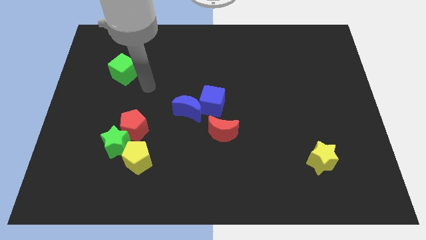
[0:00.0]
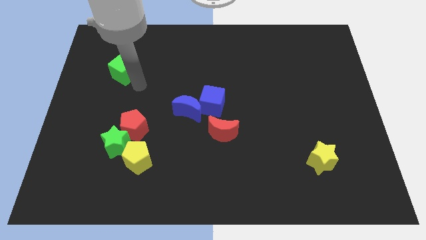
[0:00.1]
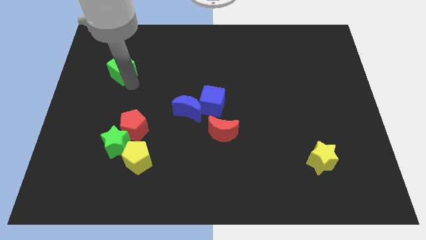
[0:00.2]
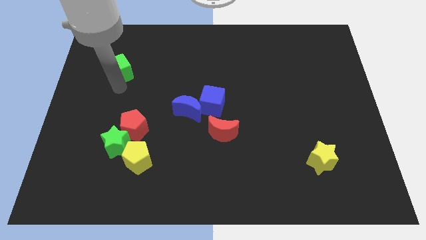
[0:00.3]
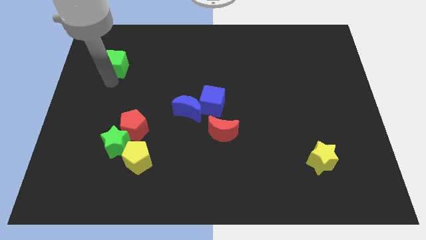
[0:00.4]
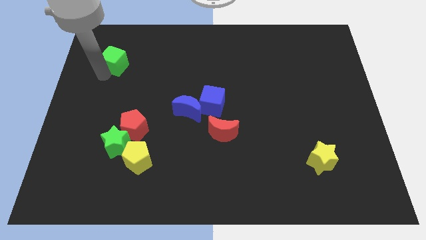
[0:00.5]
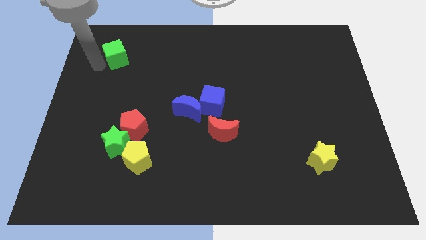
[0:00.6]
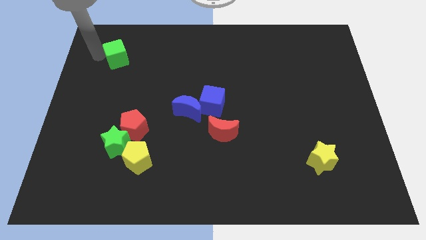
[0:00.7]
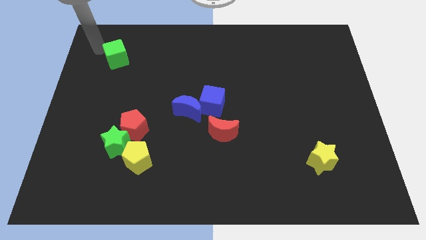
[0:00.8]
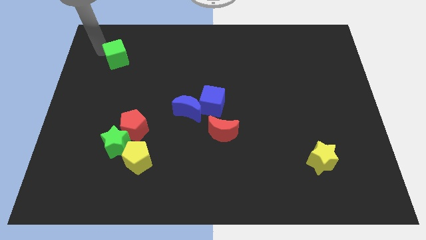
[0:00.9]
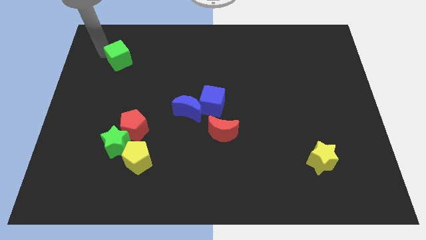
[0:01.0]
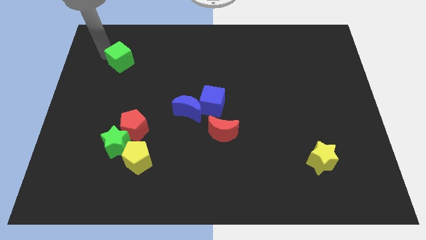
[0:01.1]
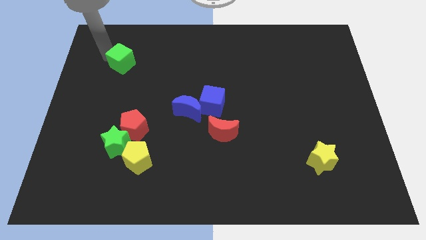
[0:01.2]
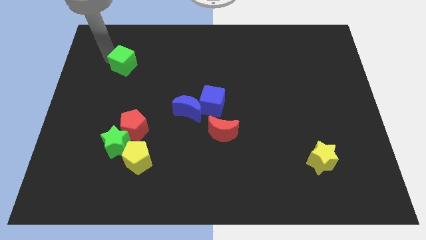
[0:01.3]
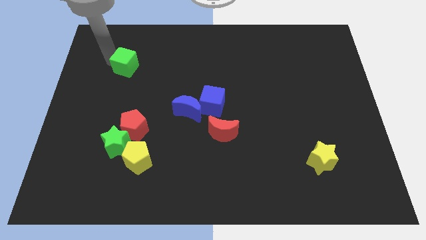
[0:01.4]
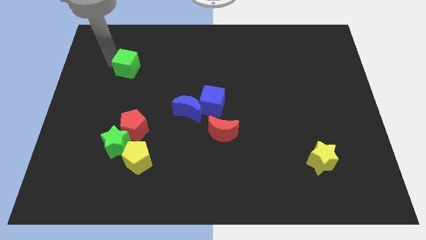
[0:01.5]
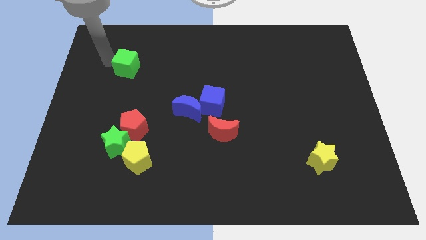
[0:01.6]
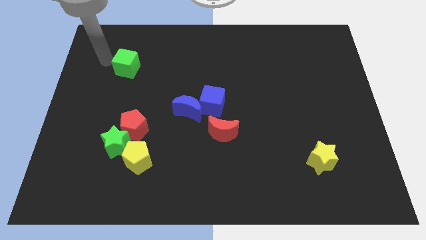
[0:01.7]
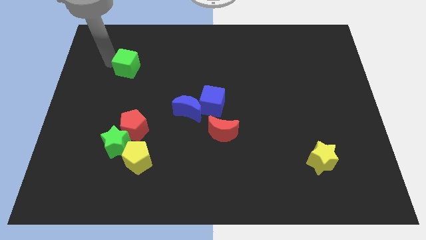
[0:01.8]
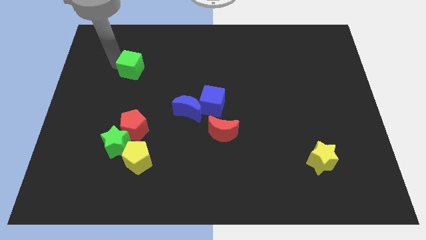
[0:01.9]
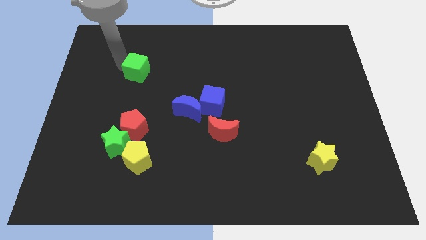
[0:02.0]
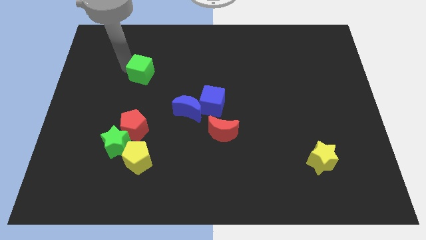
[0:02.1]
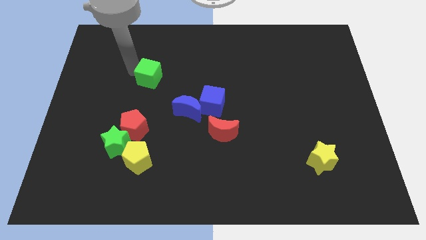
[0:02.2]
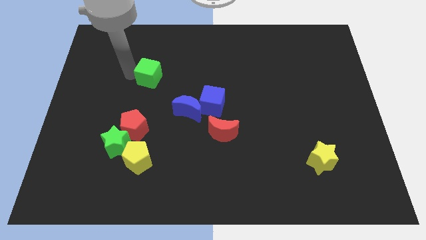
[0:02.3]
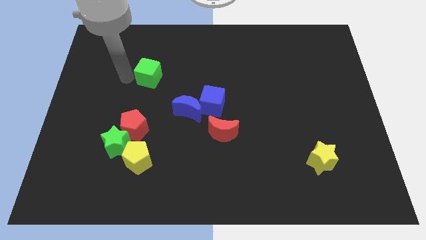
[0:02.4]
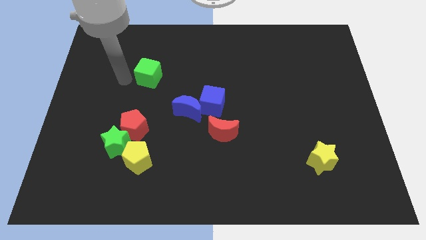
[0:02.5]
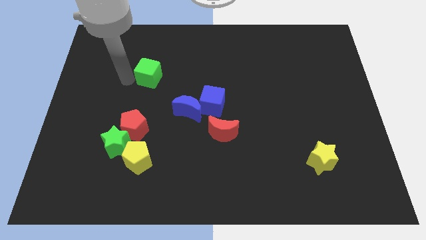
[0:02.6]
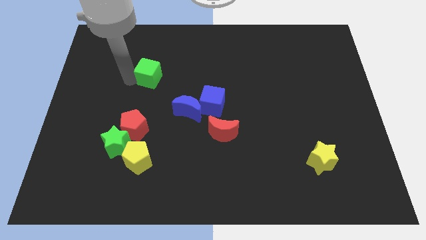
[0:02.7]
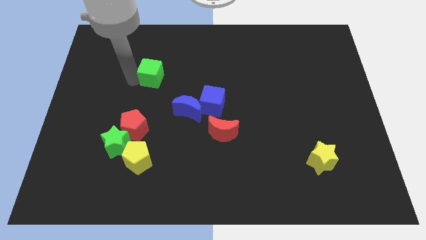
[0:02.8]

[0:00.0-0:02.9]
move the green cube somewhat to the right

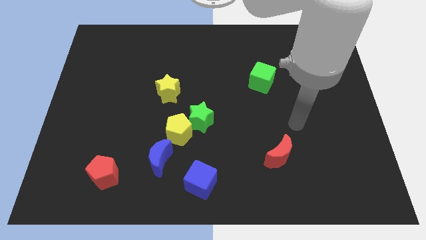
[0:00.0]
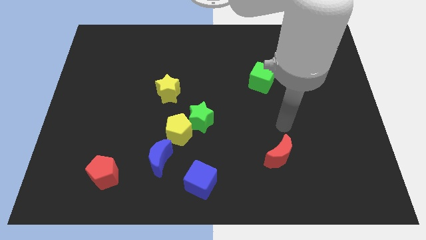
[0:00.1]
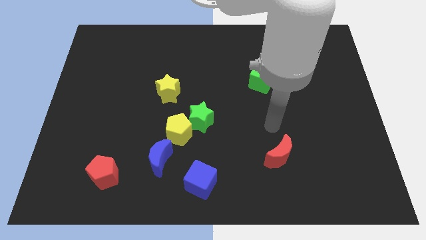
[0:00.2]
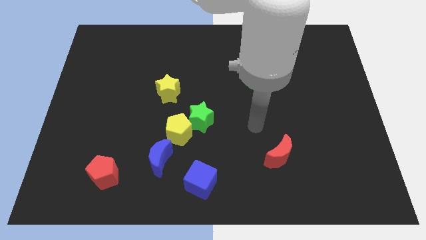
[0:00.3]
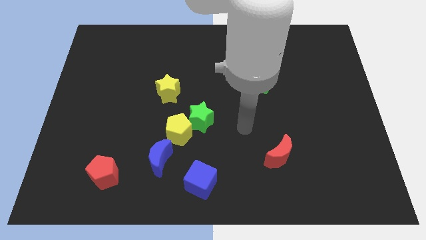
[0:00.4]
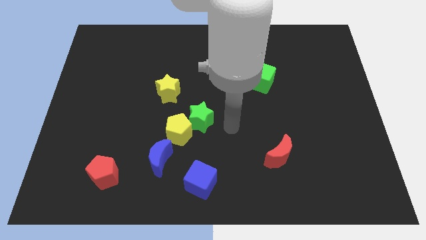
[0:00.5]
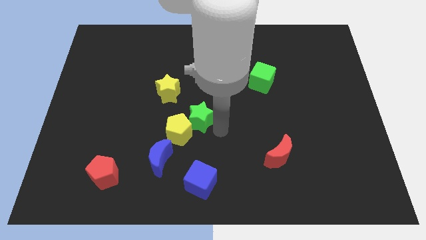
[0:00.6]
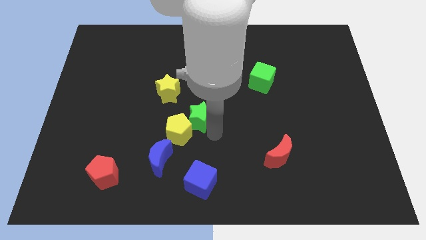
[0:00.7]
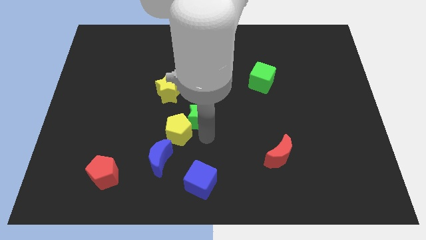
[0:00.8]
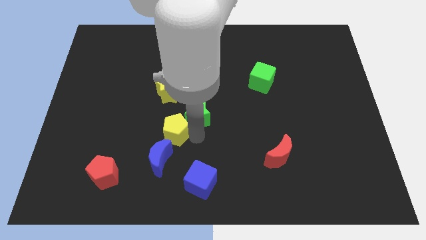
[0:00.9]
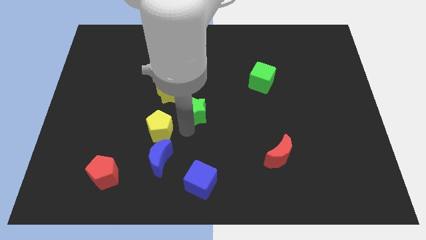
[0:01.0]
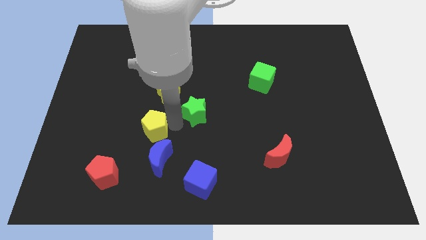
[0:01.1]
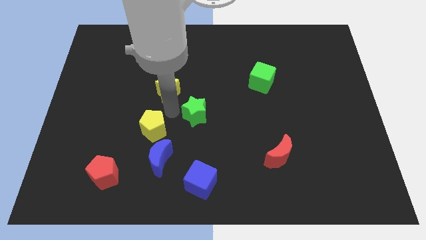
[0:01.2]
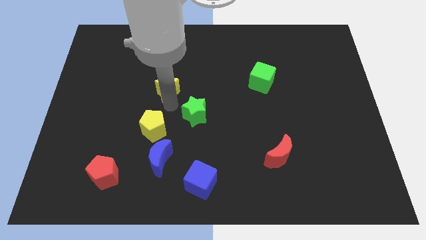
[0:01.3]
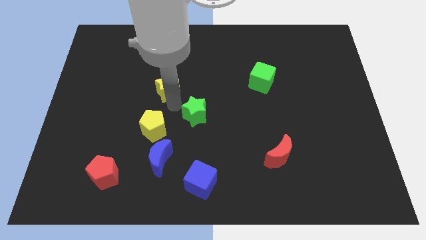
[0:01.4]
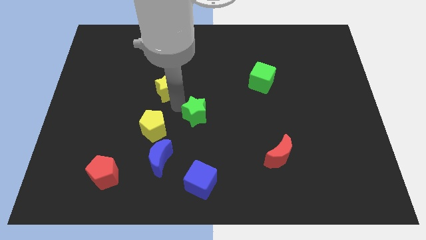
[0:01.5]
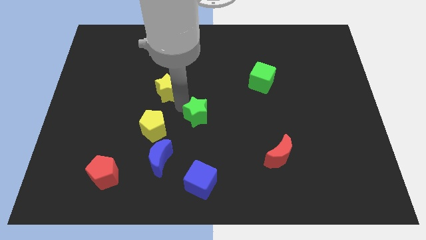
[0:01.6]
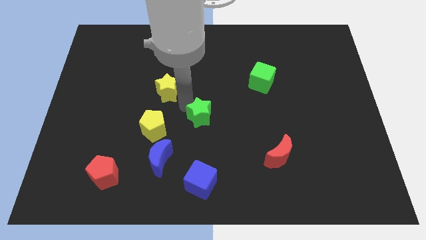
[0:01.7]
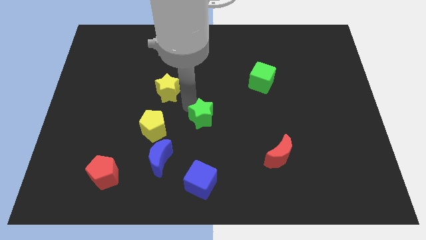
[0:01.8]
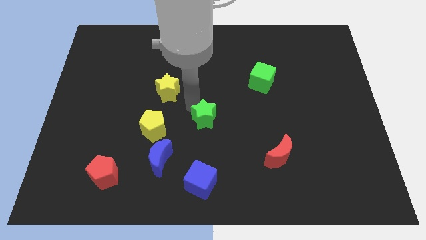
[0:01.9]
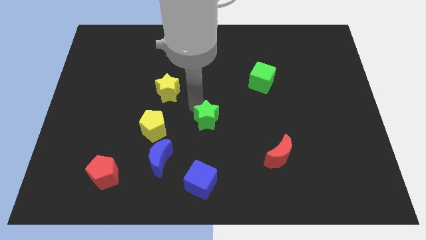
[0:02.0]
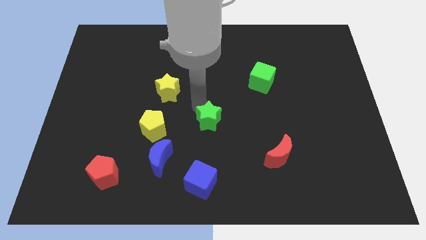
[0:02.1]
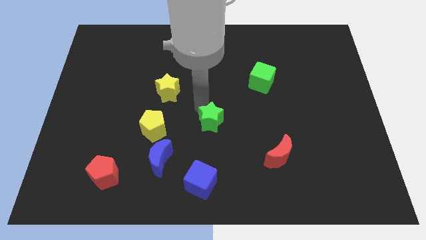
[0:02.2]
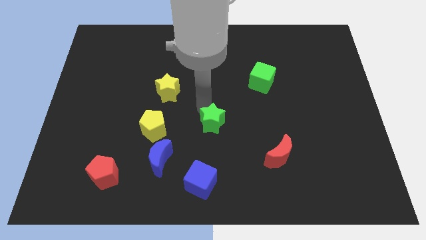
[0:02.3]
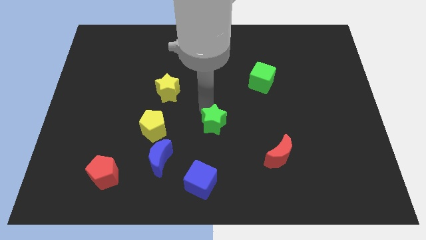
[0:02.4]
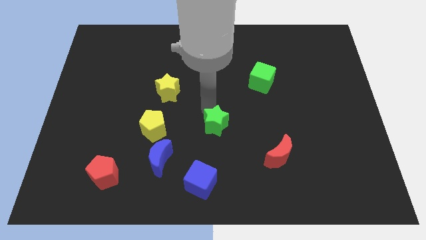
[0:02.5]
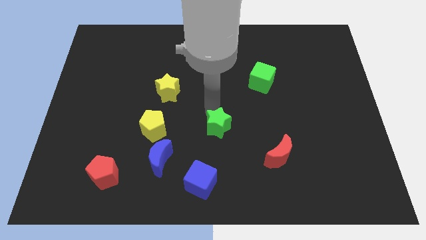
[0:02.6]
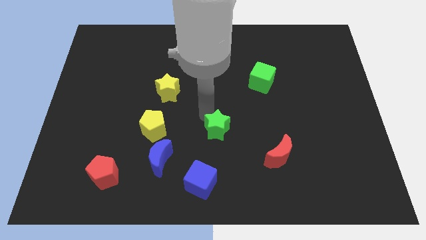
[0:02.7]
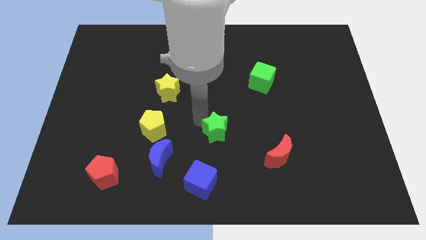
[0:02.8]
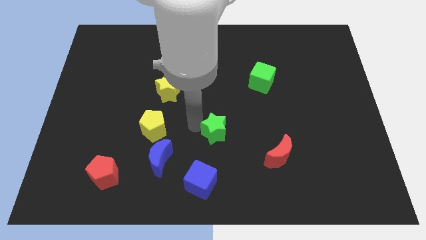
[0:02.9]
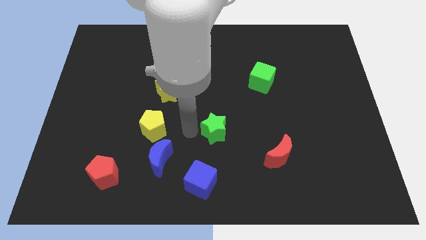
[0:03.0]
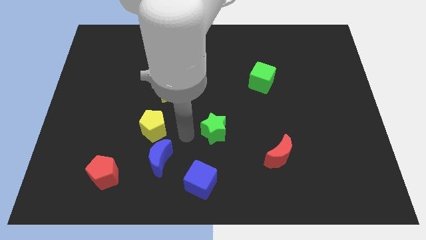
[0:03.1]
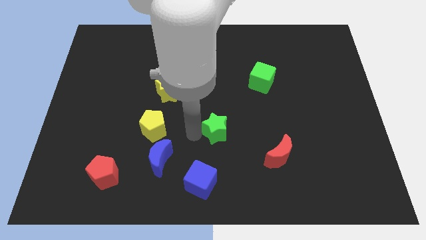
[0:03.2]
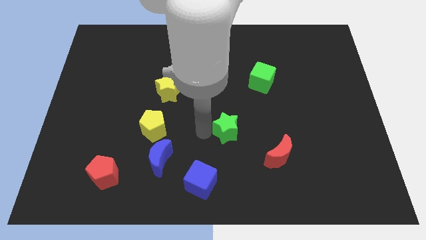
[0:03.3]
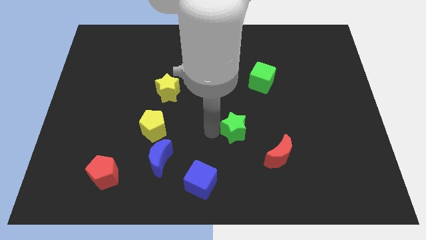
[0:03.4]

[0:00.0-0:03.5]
move the green star right slightly

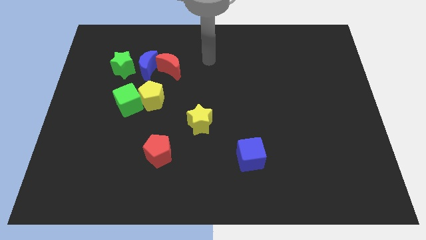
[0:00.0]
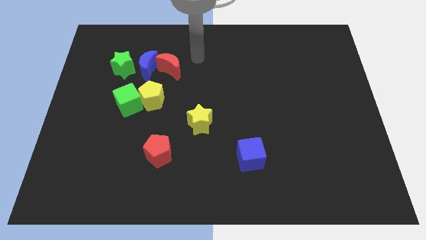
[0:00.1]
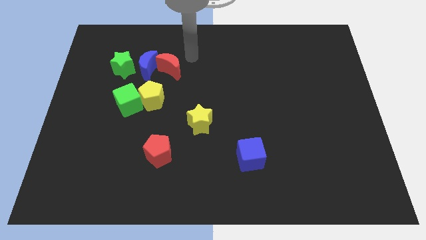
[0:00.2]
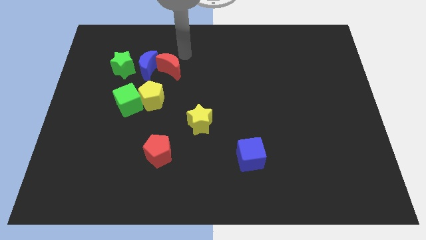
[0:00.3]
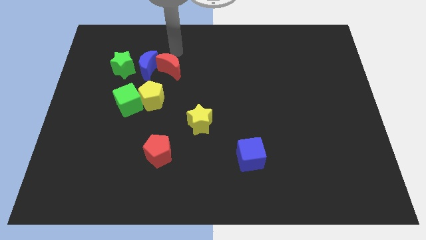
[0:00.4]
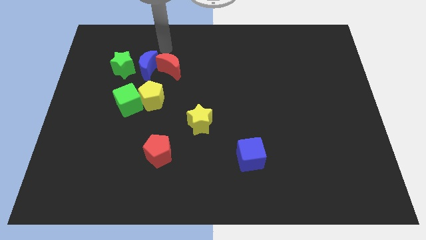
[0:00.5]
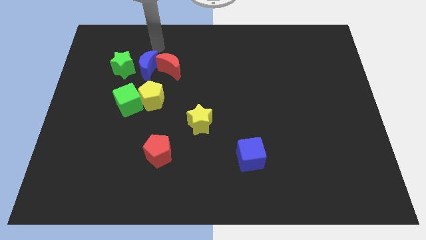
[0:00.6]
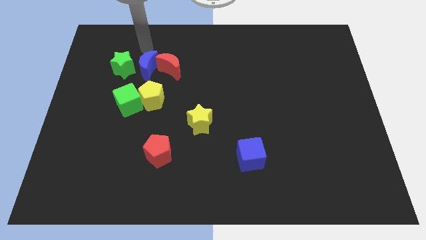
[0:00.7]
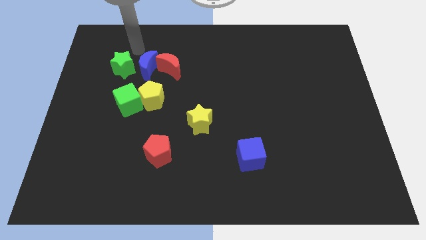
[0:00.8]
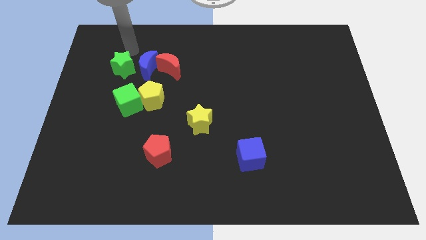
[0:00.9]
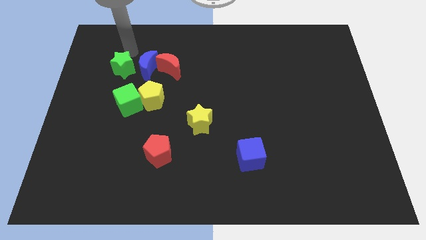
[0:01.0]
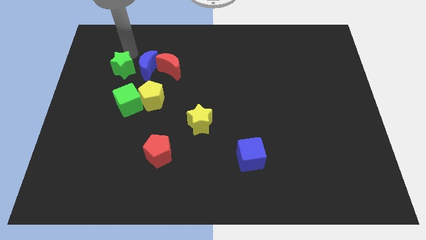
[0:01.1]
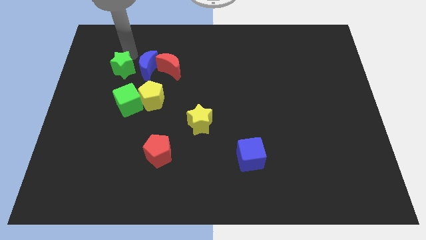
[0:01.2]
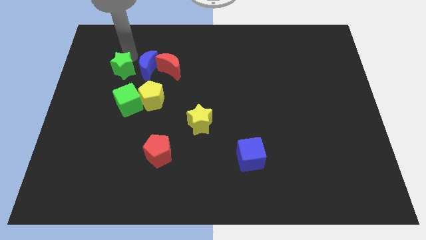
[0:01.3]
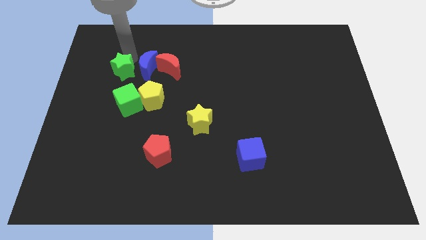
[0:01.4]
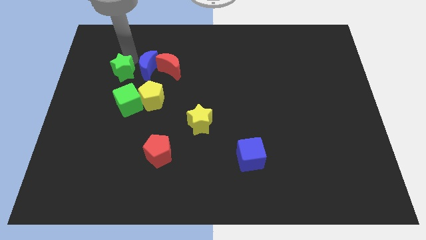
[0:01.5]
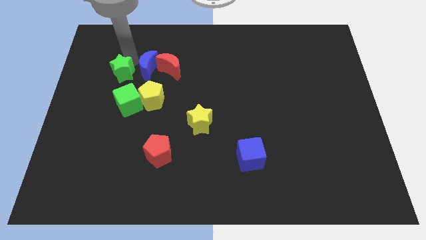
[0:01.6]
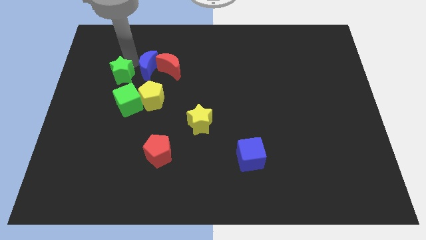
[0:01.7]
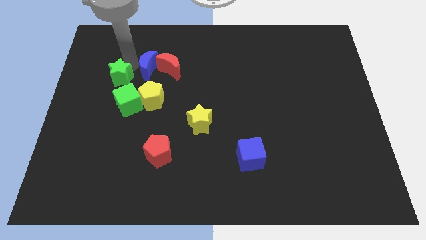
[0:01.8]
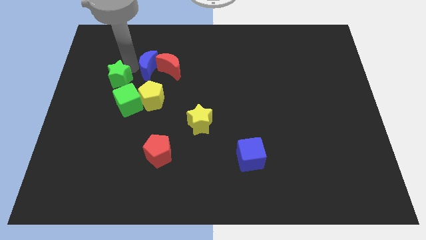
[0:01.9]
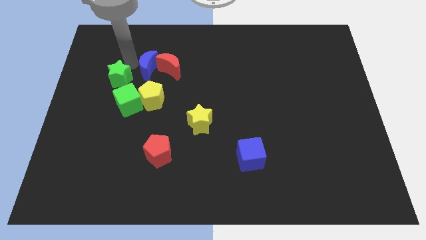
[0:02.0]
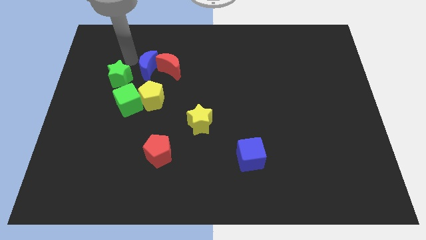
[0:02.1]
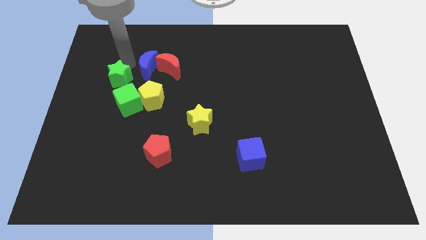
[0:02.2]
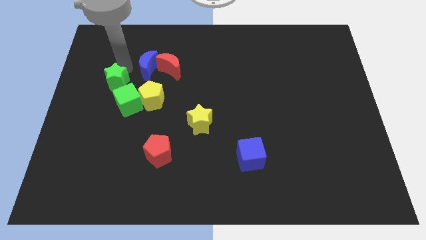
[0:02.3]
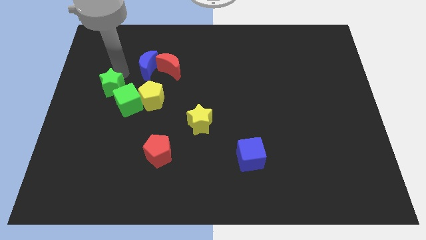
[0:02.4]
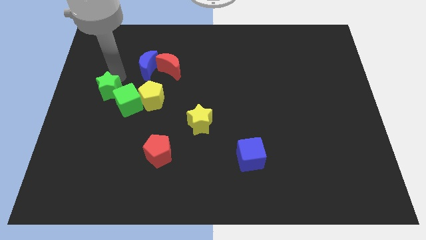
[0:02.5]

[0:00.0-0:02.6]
move the green star down slightly
